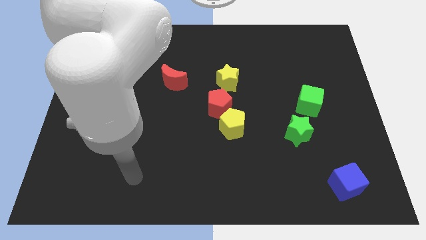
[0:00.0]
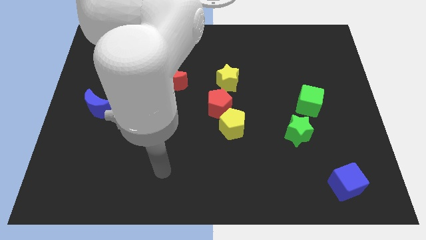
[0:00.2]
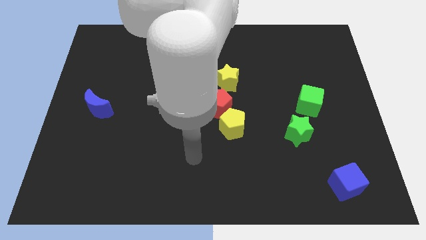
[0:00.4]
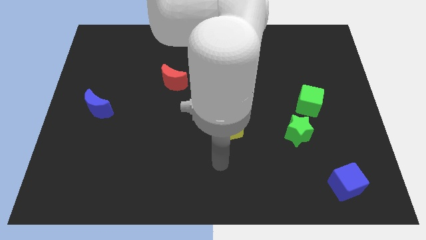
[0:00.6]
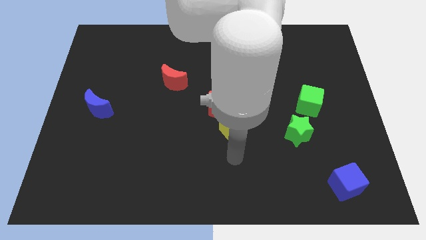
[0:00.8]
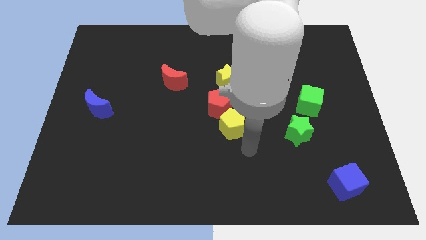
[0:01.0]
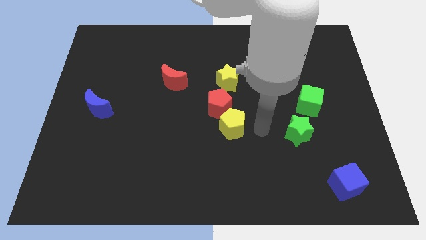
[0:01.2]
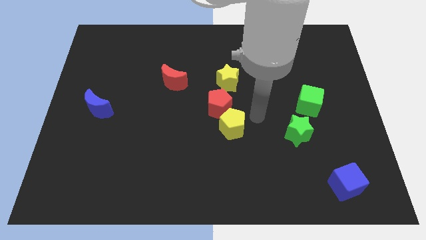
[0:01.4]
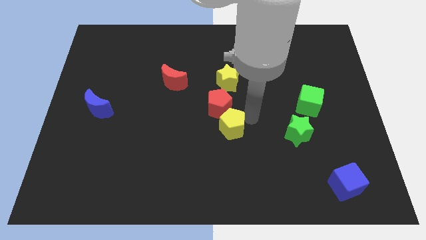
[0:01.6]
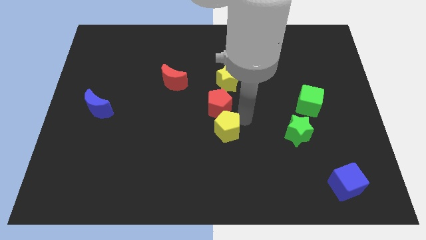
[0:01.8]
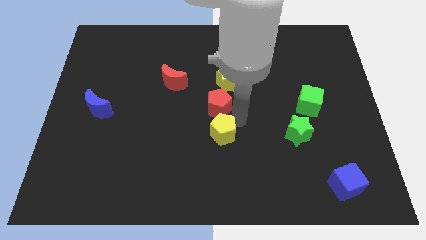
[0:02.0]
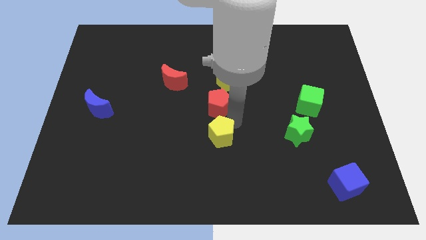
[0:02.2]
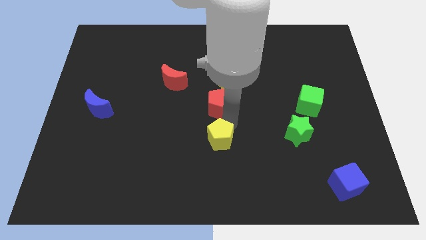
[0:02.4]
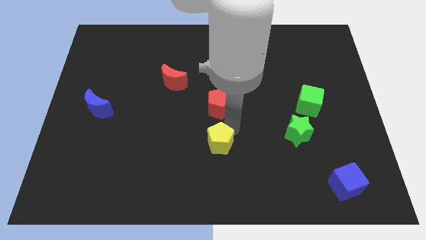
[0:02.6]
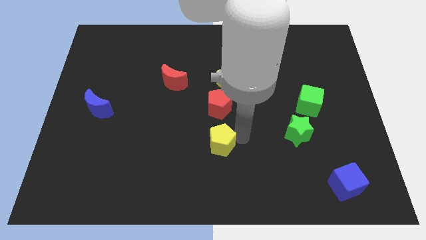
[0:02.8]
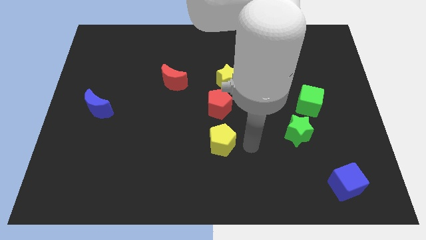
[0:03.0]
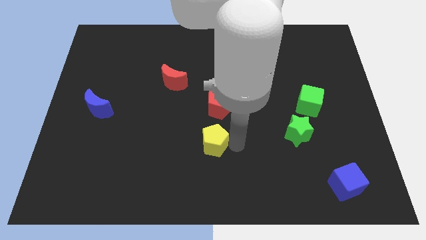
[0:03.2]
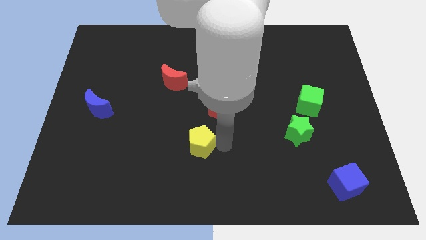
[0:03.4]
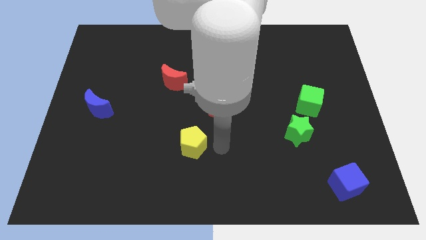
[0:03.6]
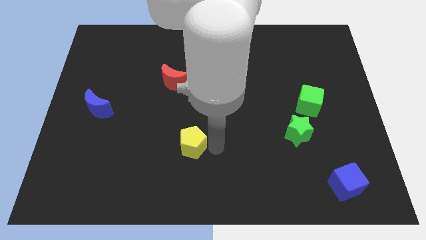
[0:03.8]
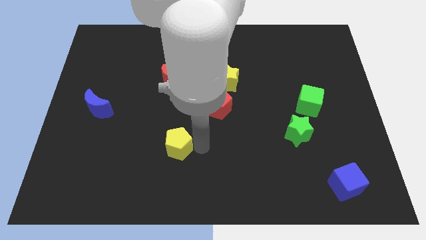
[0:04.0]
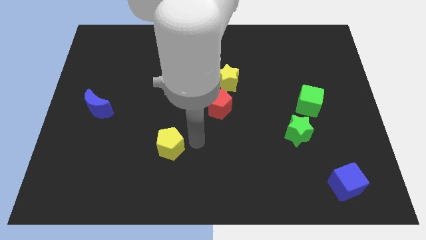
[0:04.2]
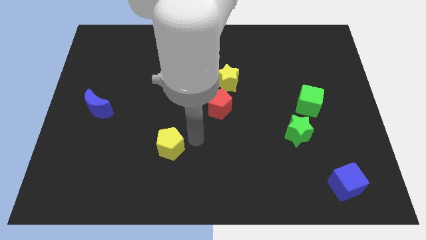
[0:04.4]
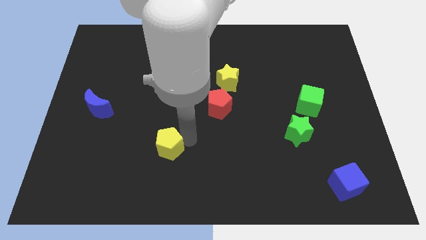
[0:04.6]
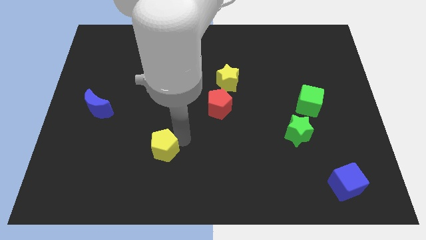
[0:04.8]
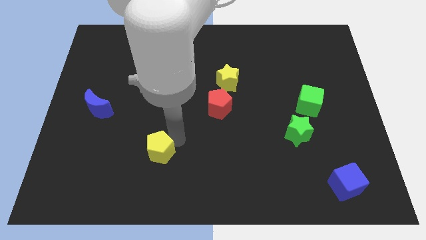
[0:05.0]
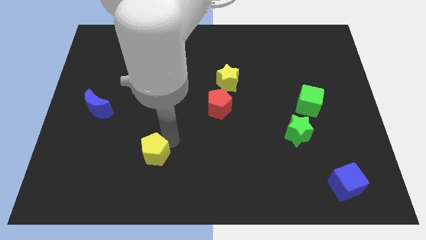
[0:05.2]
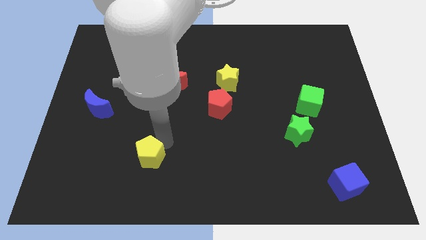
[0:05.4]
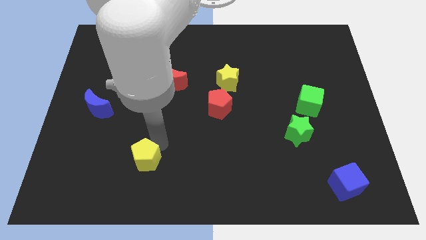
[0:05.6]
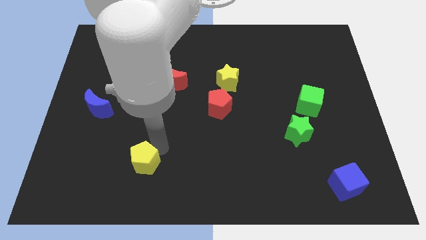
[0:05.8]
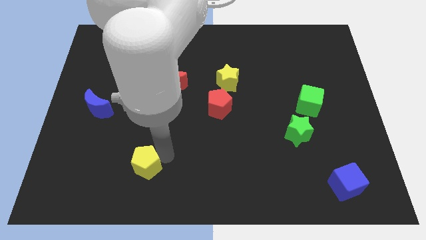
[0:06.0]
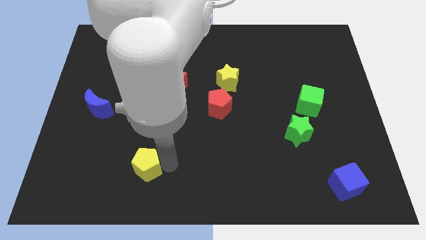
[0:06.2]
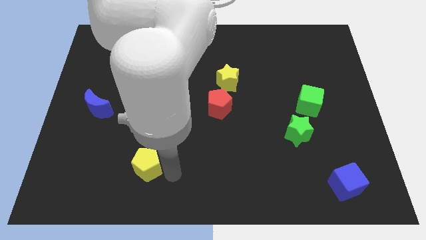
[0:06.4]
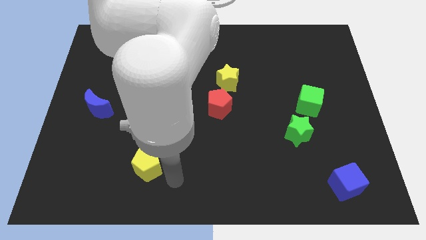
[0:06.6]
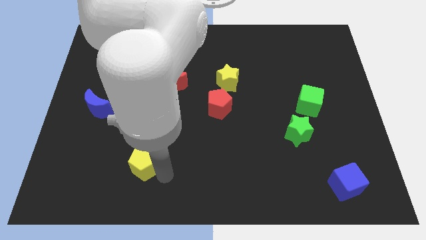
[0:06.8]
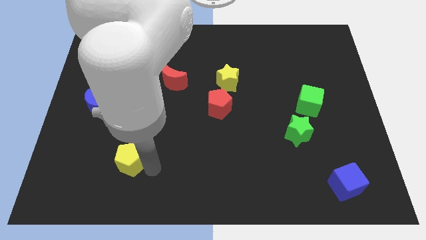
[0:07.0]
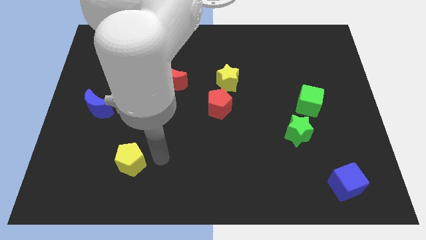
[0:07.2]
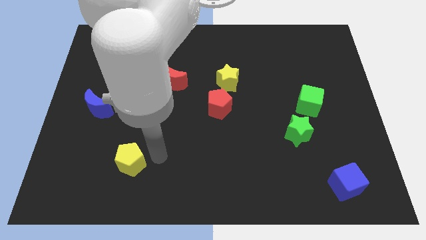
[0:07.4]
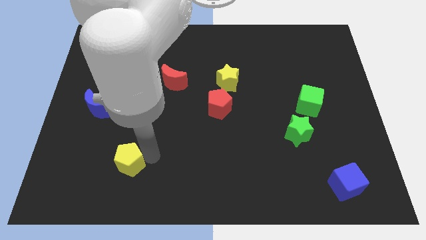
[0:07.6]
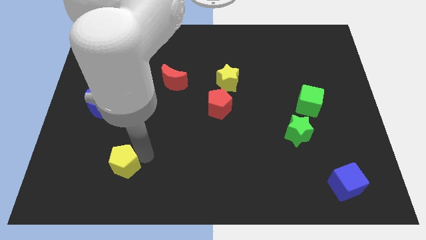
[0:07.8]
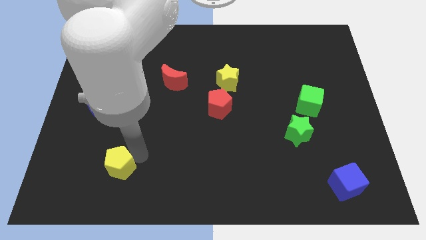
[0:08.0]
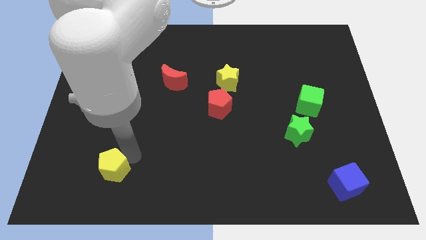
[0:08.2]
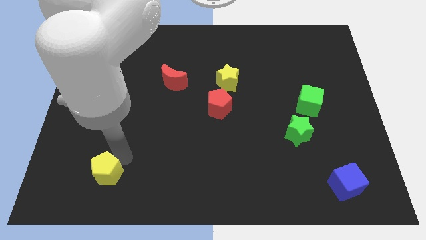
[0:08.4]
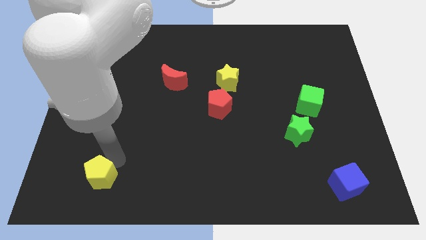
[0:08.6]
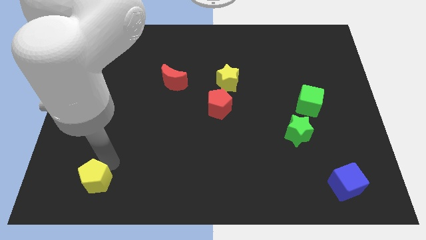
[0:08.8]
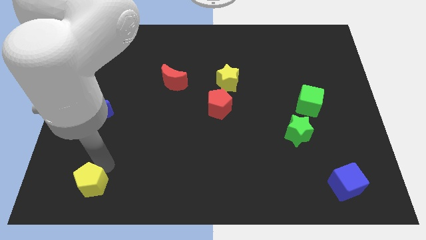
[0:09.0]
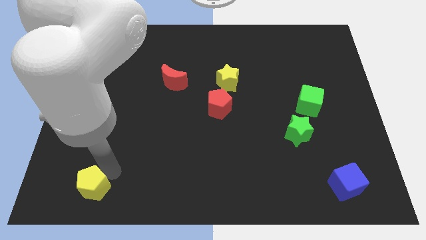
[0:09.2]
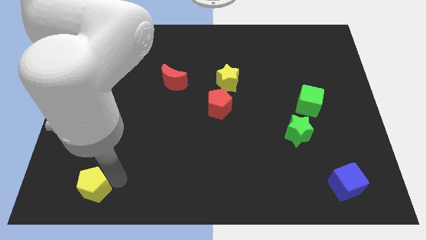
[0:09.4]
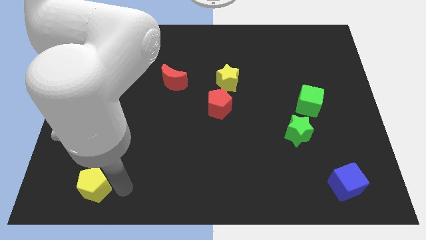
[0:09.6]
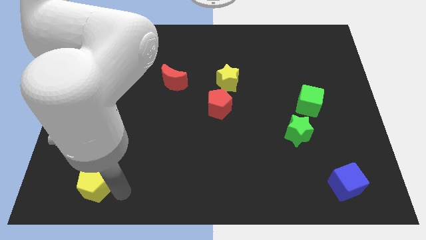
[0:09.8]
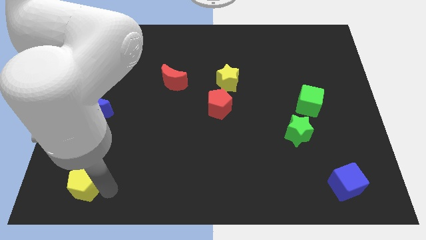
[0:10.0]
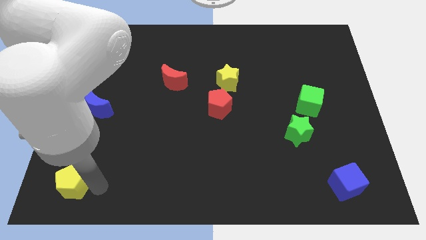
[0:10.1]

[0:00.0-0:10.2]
slide the yellow pentagon to the bottom left

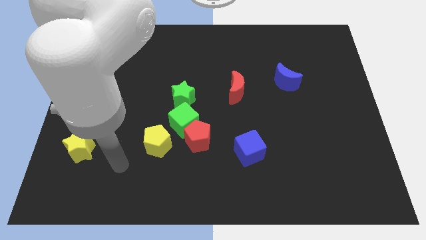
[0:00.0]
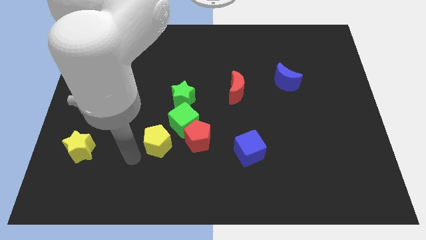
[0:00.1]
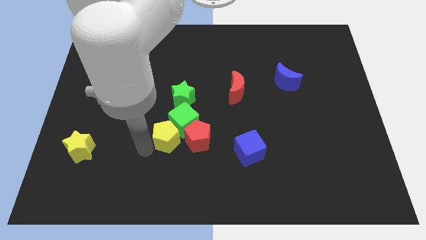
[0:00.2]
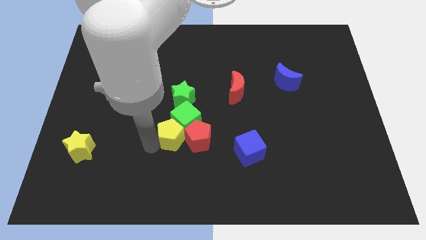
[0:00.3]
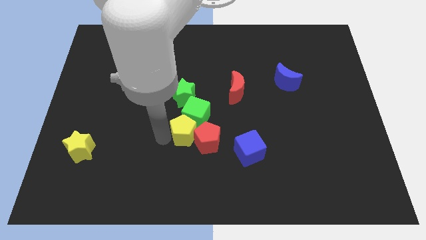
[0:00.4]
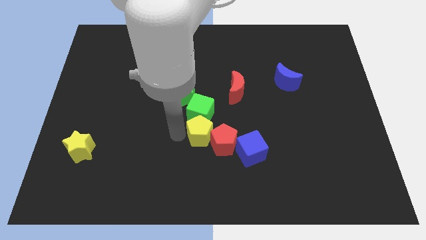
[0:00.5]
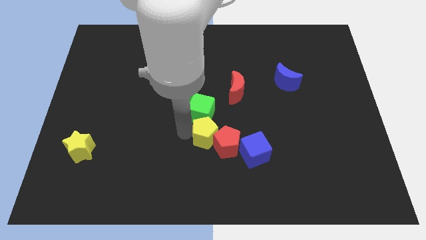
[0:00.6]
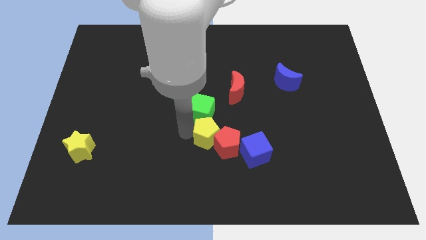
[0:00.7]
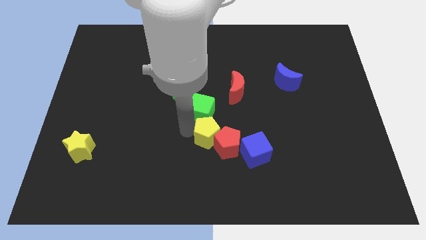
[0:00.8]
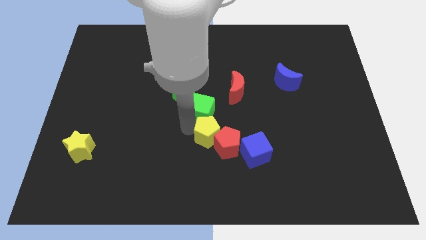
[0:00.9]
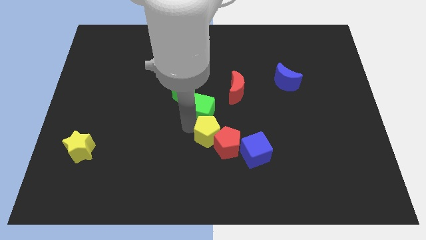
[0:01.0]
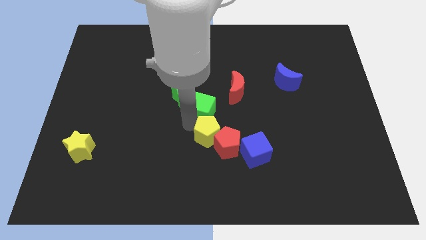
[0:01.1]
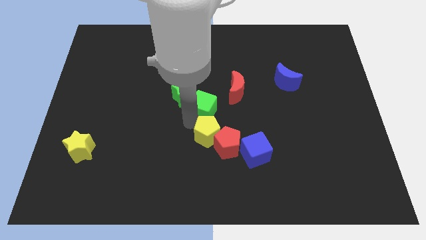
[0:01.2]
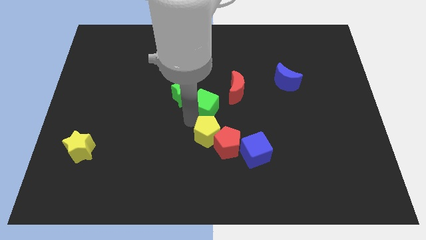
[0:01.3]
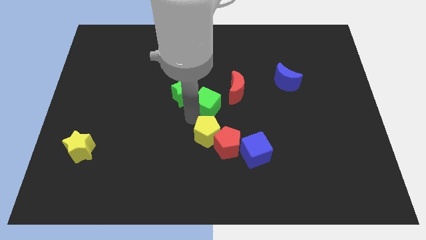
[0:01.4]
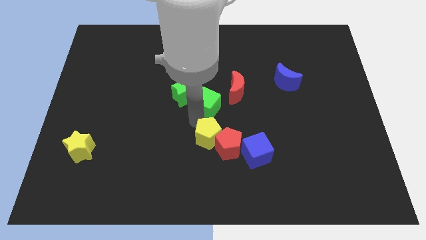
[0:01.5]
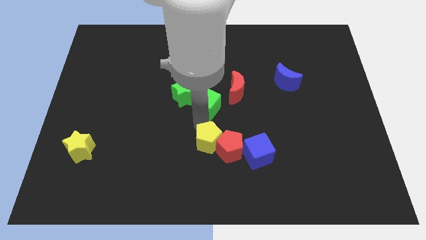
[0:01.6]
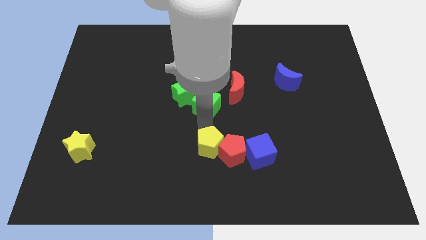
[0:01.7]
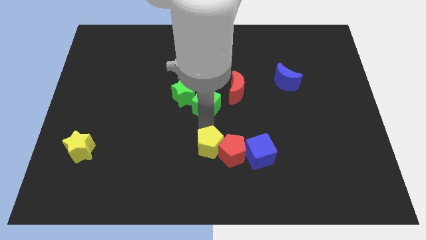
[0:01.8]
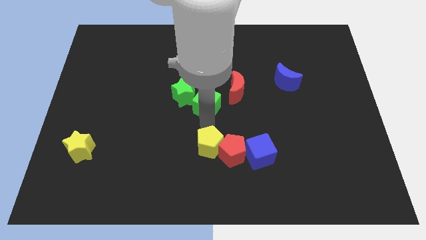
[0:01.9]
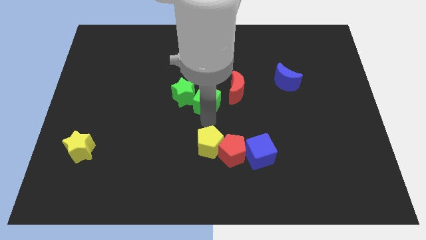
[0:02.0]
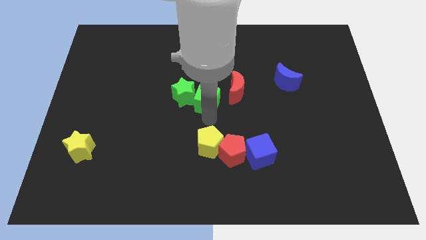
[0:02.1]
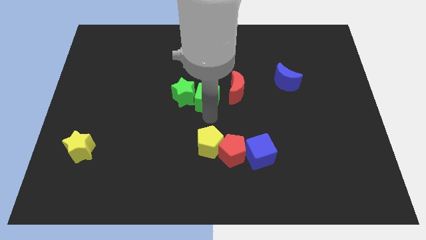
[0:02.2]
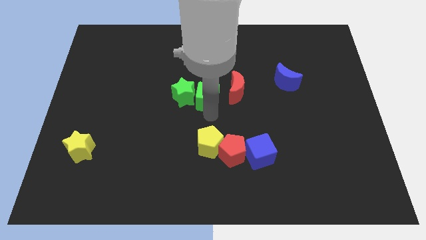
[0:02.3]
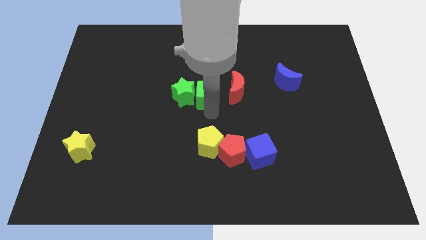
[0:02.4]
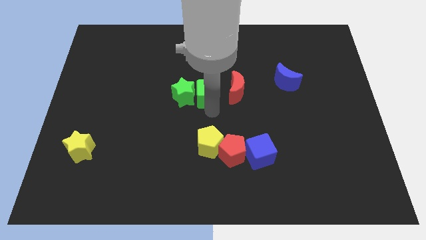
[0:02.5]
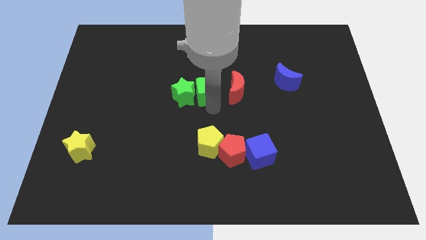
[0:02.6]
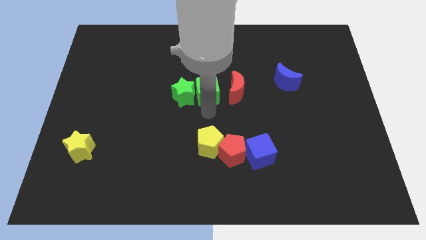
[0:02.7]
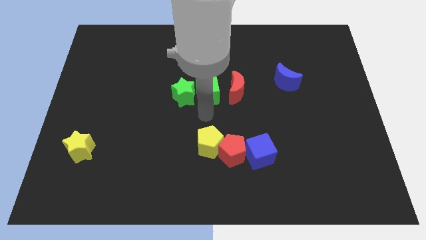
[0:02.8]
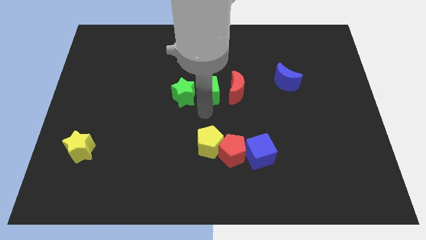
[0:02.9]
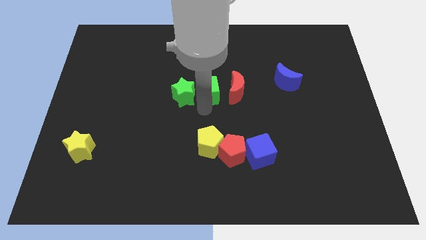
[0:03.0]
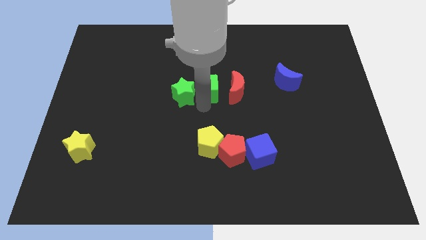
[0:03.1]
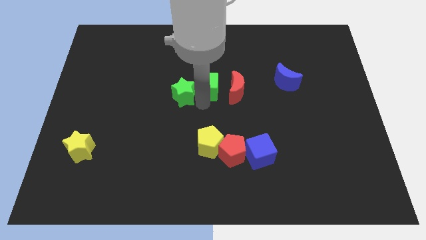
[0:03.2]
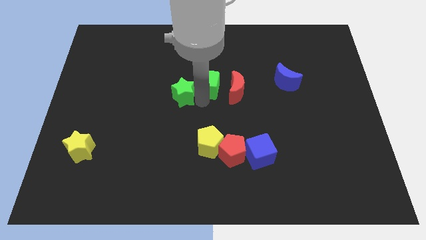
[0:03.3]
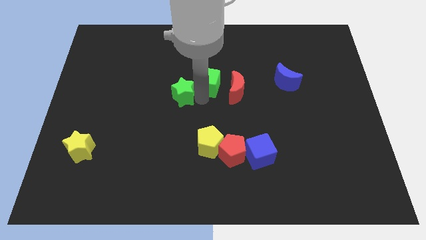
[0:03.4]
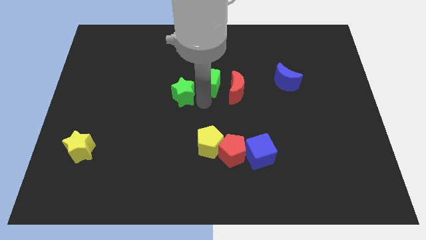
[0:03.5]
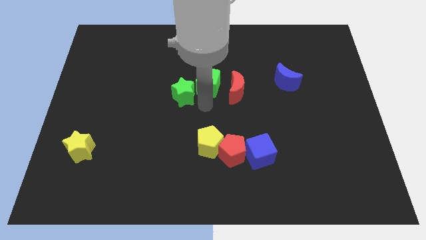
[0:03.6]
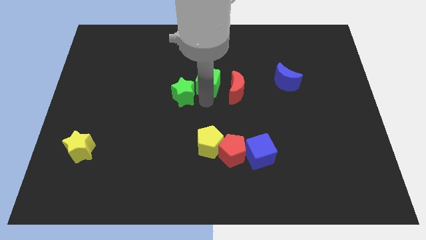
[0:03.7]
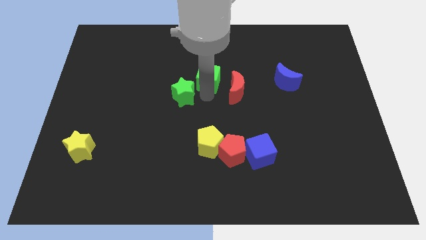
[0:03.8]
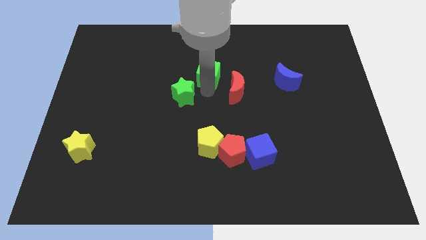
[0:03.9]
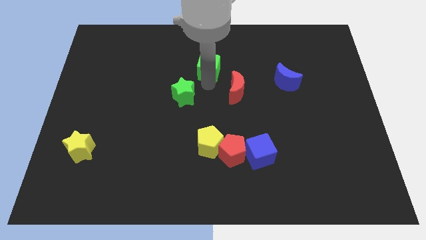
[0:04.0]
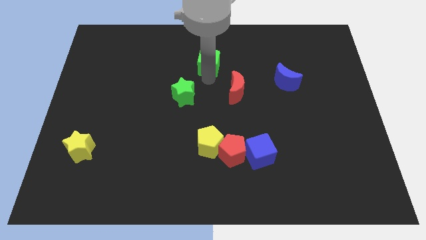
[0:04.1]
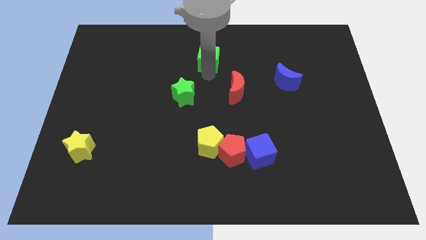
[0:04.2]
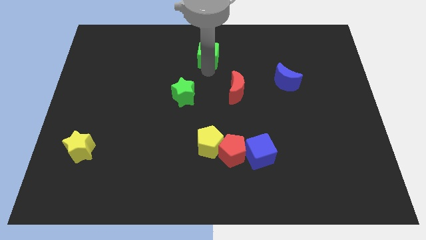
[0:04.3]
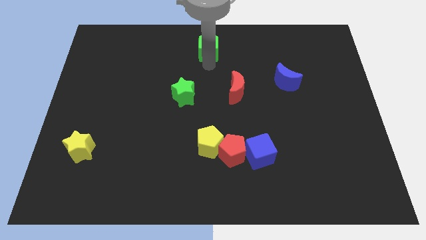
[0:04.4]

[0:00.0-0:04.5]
move the green cube to the top
